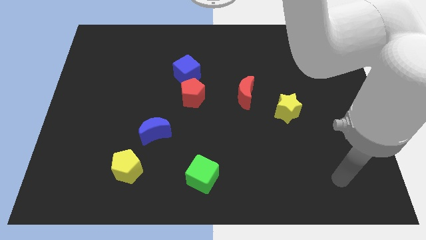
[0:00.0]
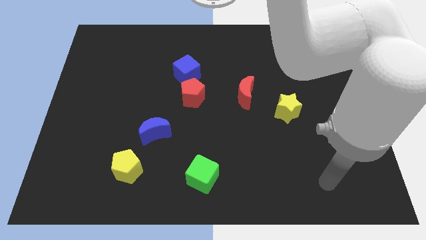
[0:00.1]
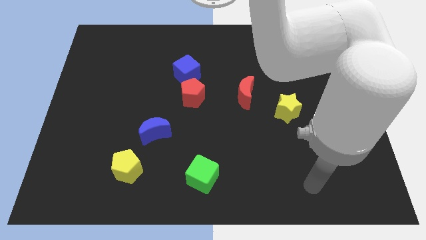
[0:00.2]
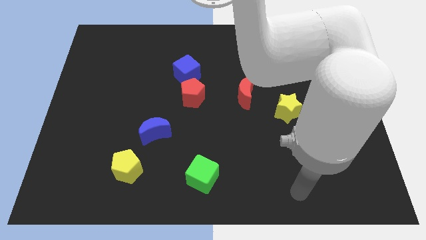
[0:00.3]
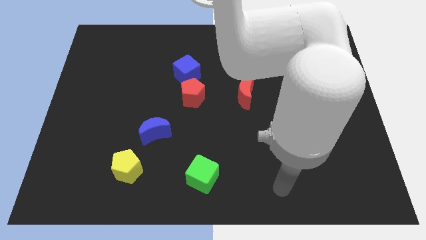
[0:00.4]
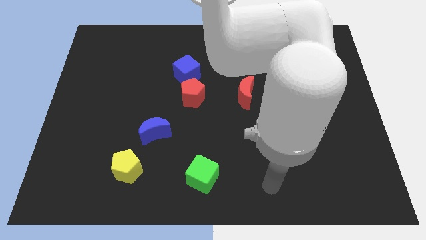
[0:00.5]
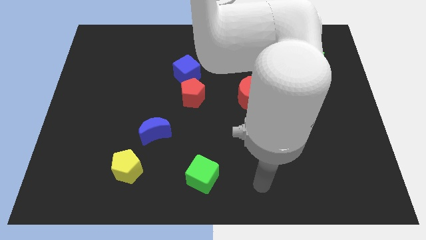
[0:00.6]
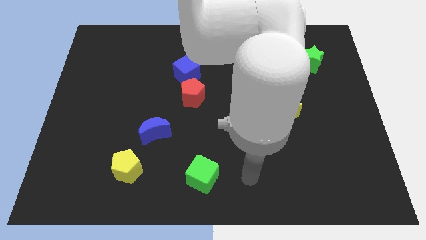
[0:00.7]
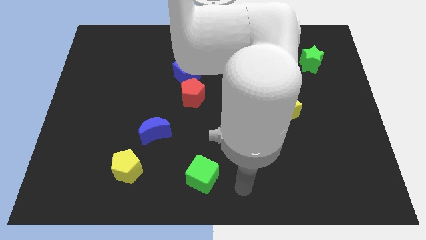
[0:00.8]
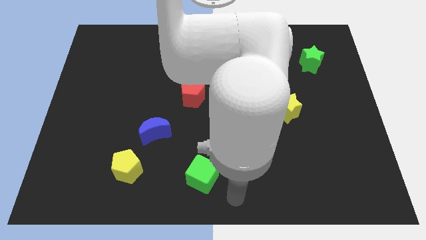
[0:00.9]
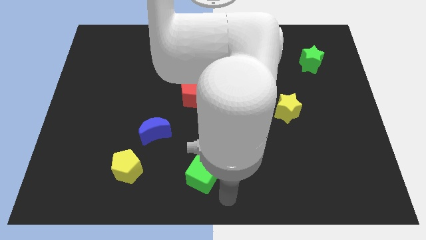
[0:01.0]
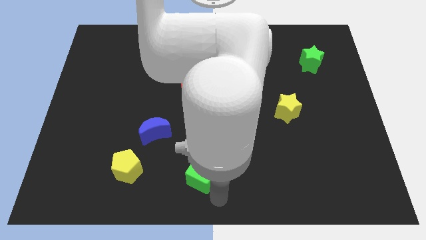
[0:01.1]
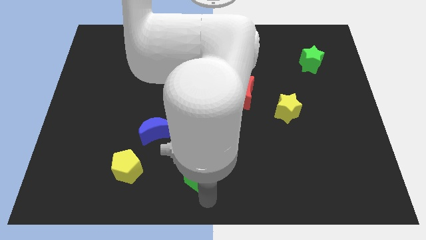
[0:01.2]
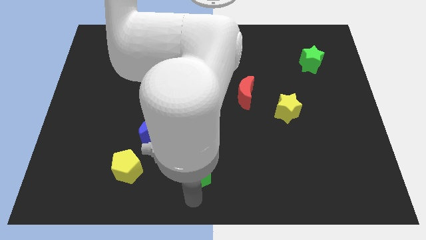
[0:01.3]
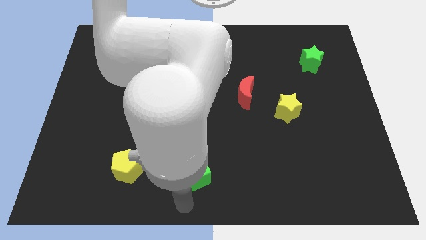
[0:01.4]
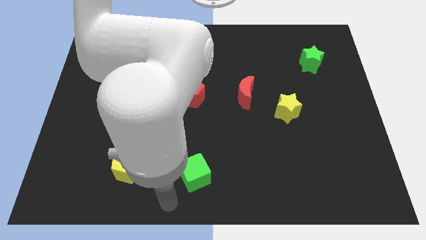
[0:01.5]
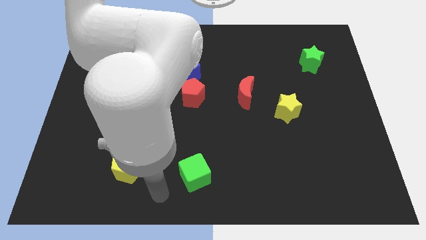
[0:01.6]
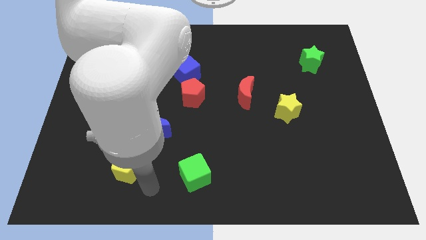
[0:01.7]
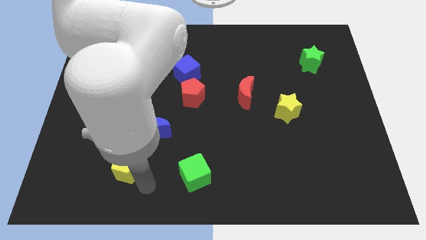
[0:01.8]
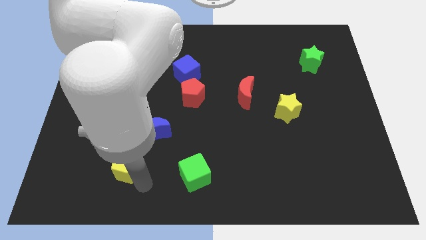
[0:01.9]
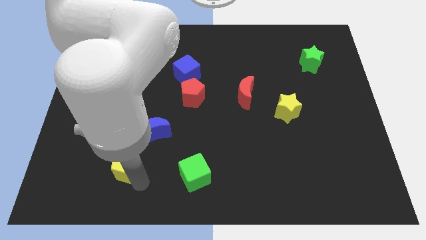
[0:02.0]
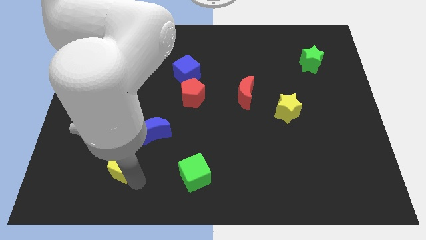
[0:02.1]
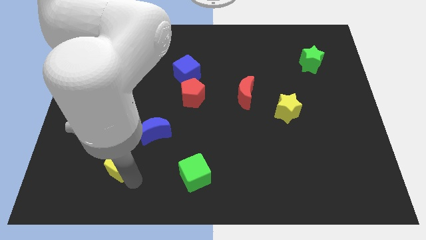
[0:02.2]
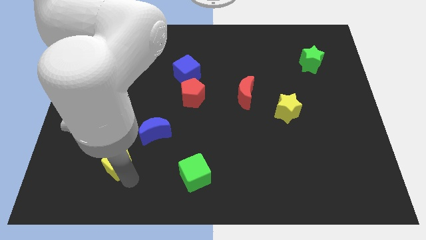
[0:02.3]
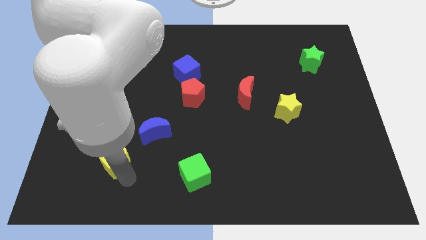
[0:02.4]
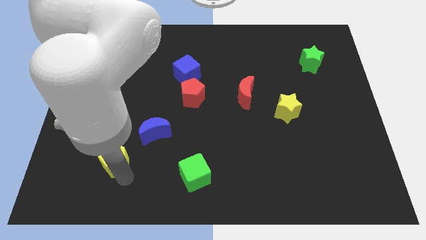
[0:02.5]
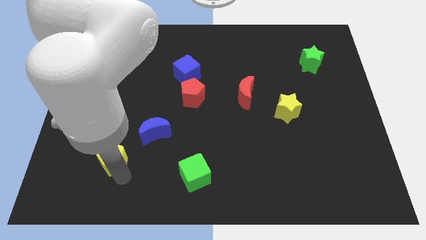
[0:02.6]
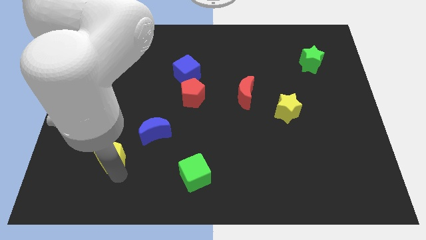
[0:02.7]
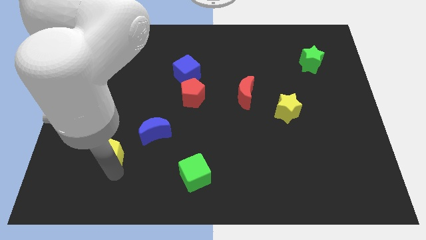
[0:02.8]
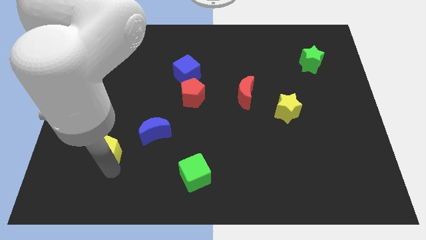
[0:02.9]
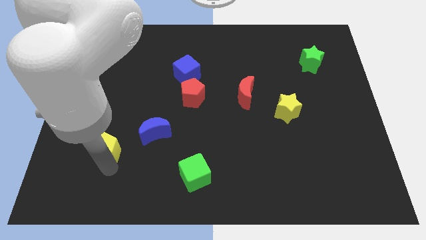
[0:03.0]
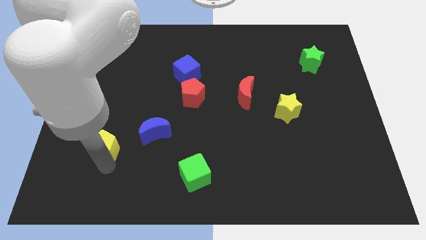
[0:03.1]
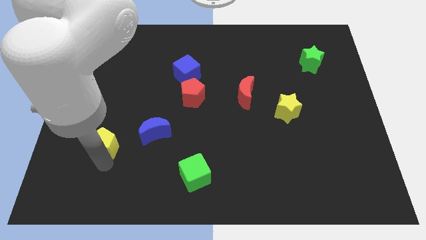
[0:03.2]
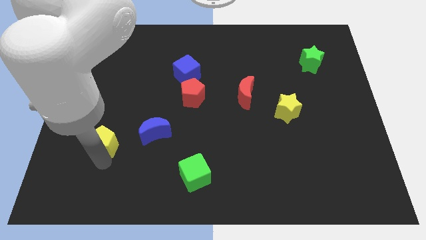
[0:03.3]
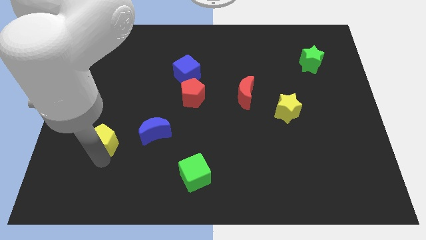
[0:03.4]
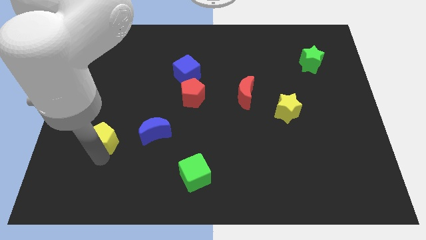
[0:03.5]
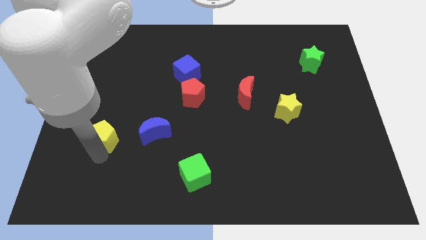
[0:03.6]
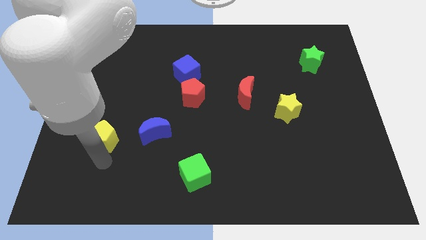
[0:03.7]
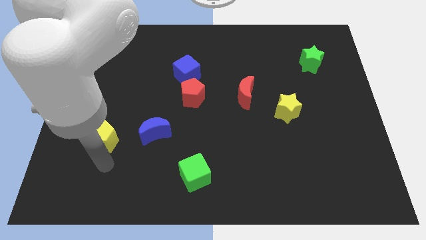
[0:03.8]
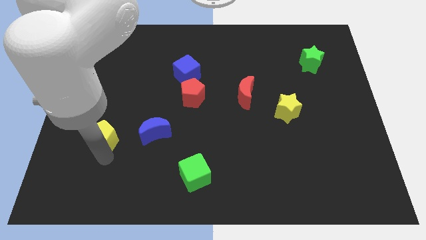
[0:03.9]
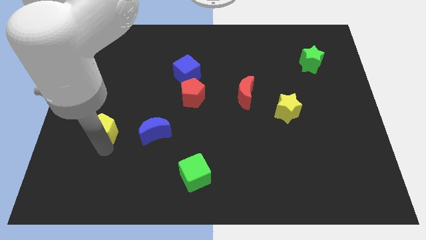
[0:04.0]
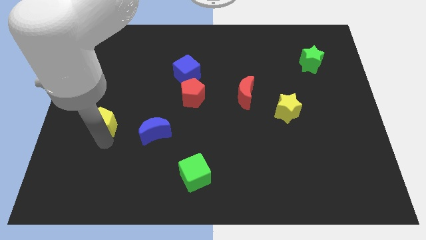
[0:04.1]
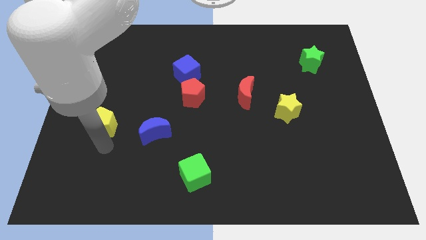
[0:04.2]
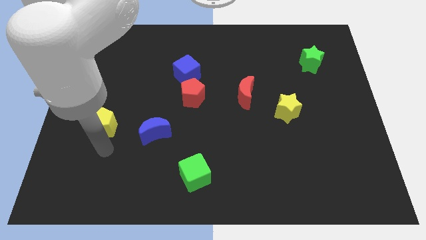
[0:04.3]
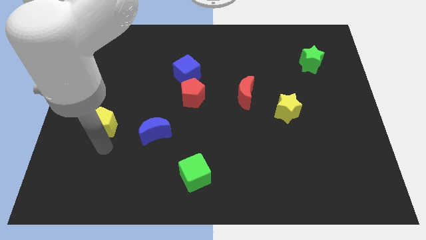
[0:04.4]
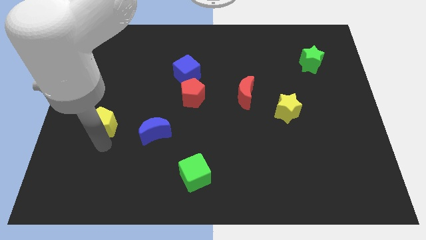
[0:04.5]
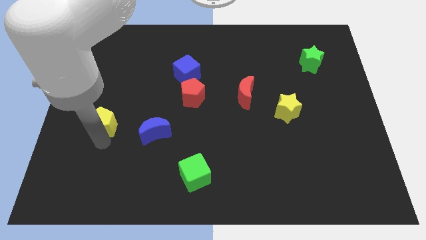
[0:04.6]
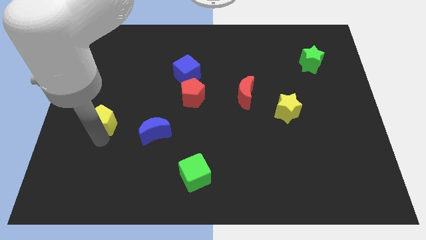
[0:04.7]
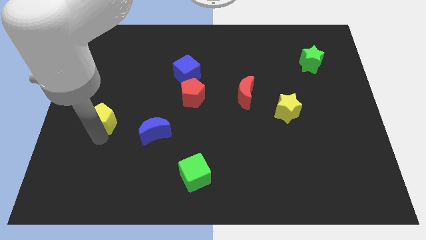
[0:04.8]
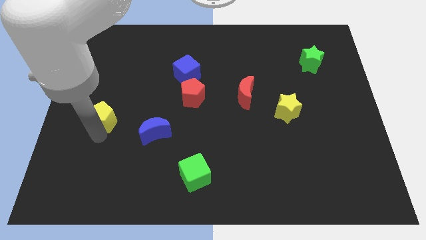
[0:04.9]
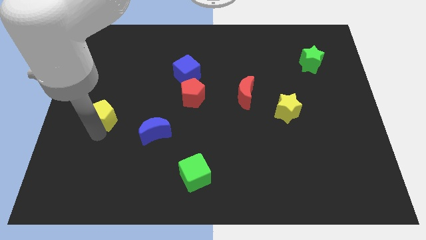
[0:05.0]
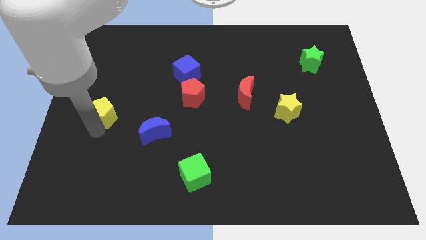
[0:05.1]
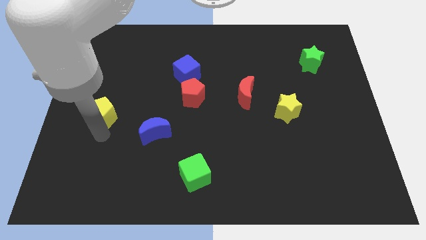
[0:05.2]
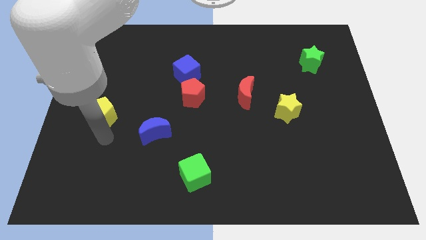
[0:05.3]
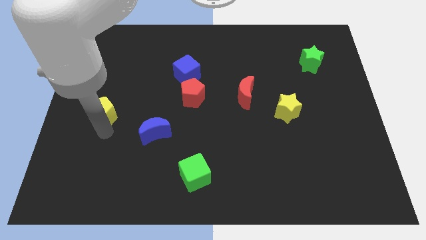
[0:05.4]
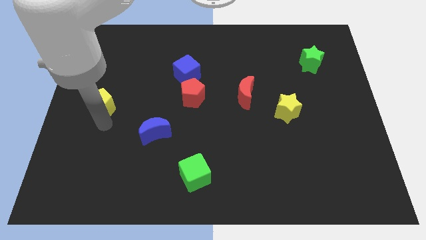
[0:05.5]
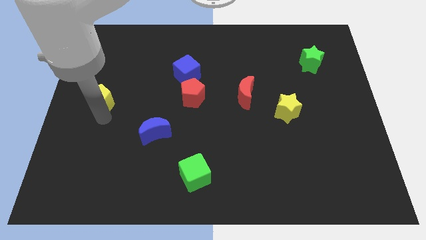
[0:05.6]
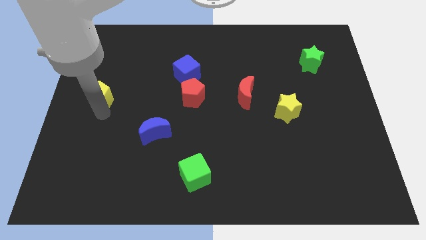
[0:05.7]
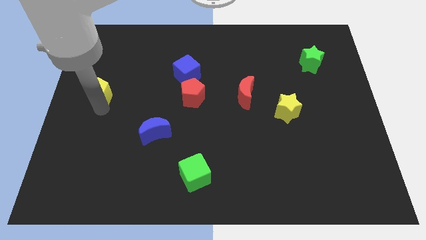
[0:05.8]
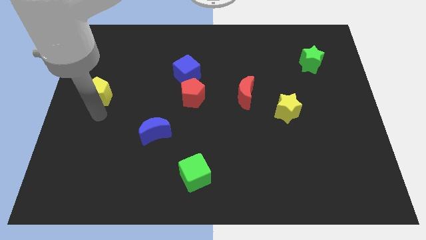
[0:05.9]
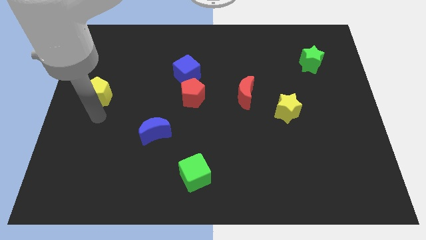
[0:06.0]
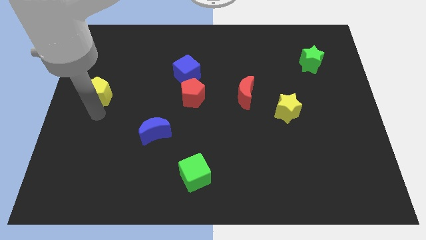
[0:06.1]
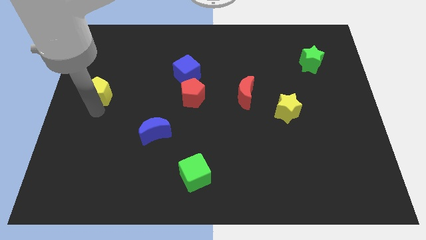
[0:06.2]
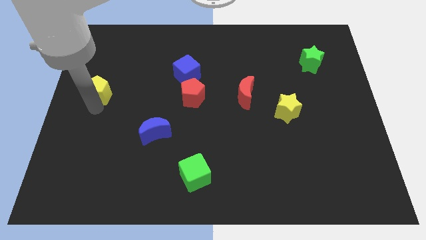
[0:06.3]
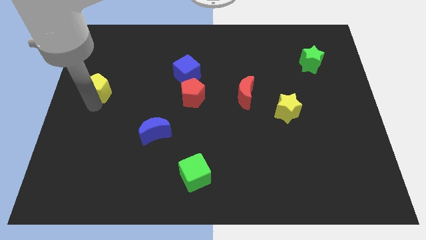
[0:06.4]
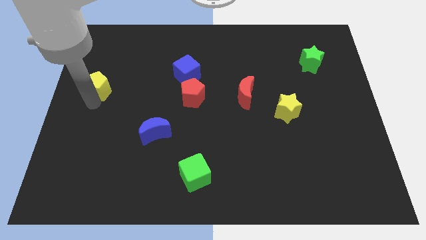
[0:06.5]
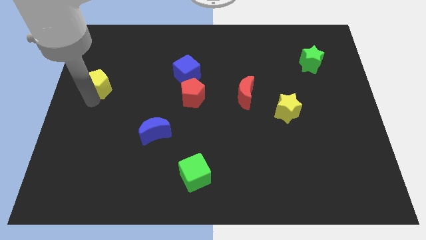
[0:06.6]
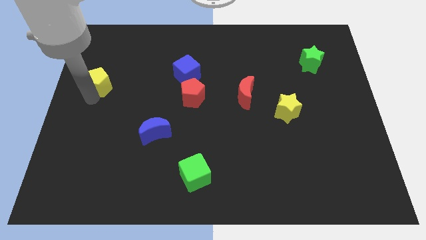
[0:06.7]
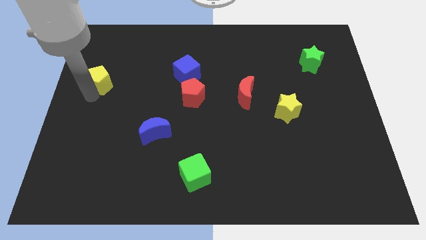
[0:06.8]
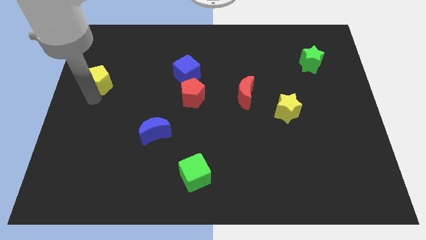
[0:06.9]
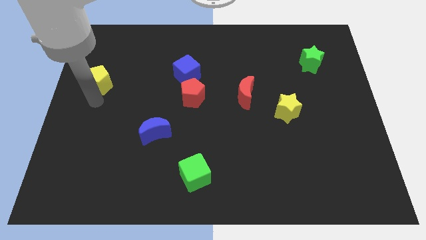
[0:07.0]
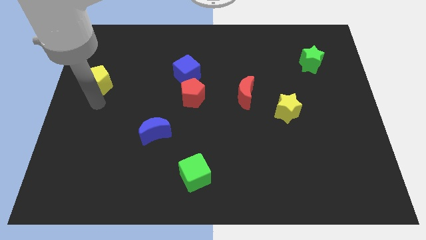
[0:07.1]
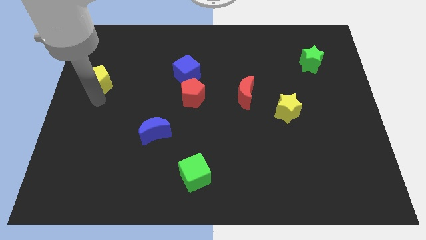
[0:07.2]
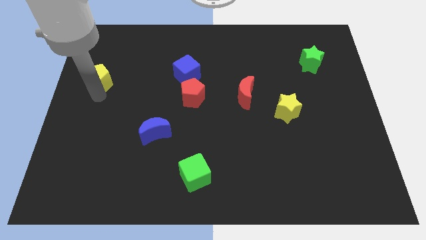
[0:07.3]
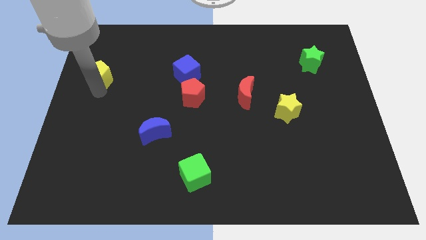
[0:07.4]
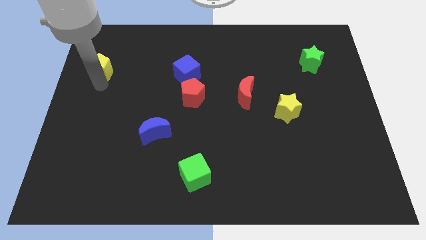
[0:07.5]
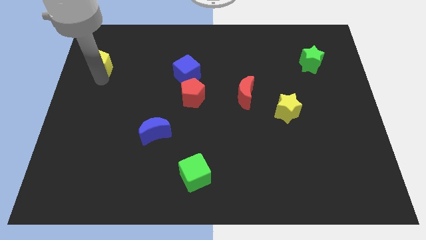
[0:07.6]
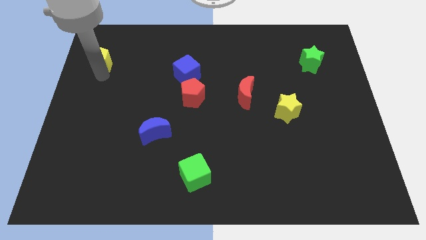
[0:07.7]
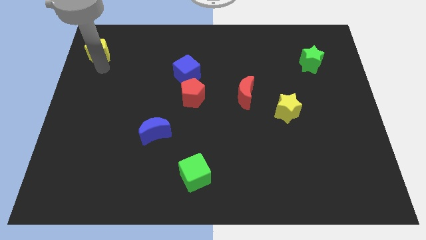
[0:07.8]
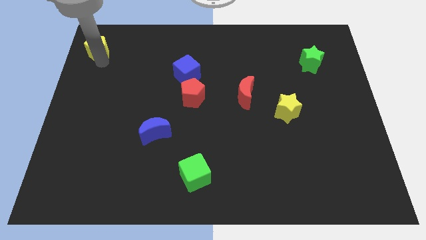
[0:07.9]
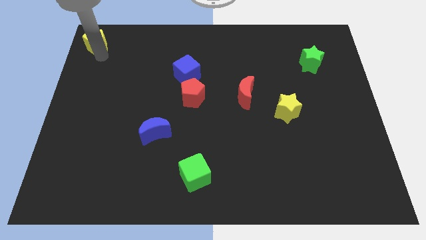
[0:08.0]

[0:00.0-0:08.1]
slide the yellow pentagon to the top left of the board
